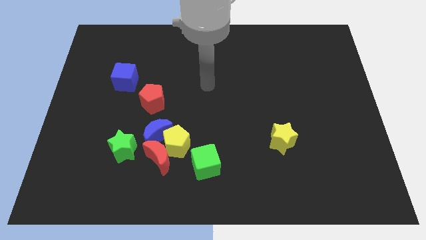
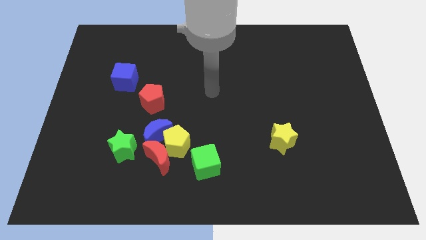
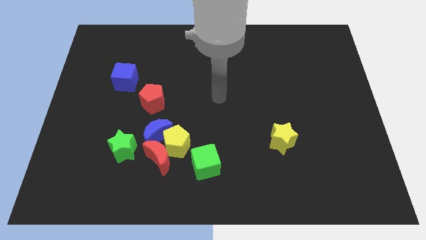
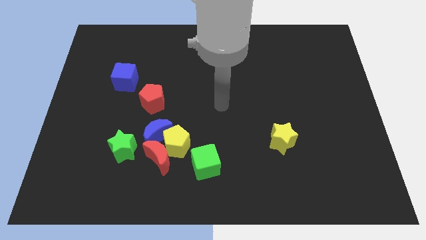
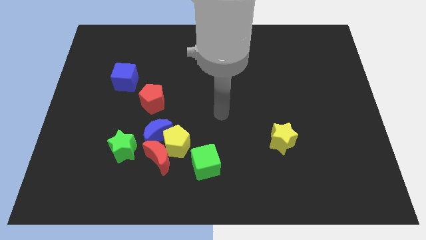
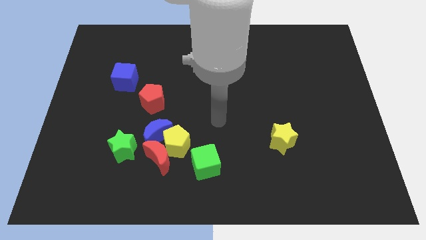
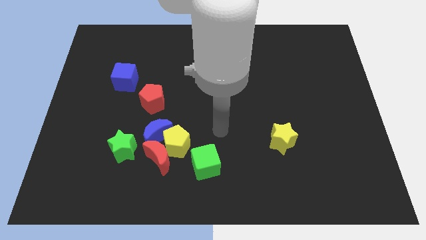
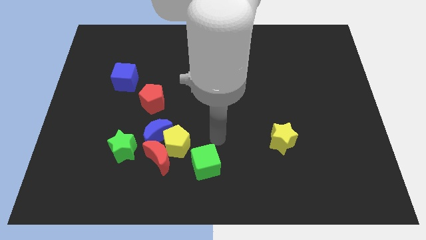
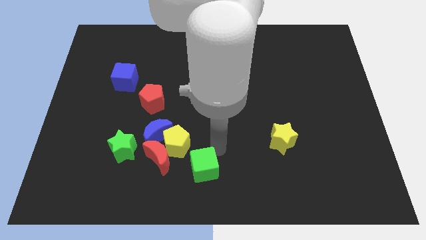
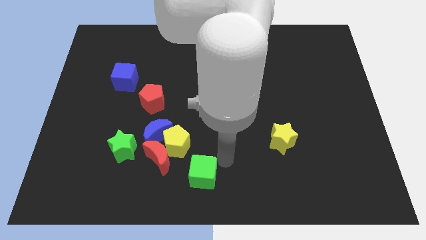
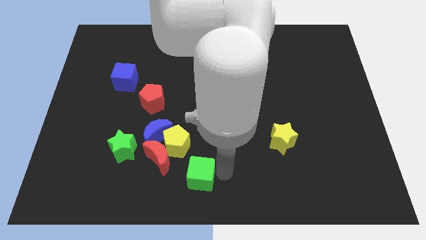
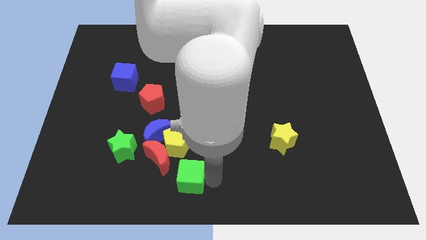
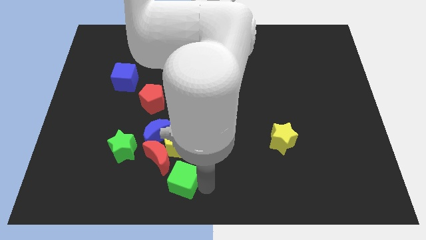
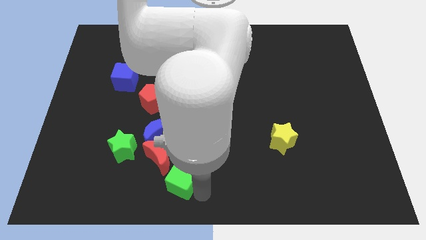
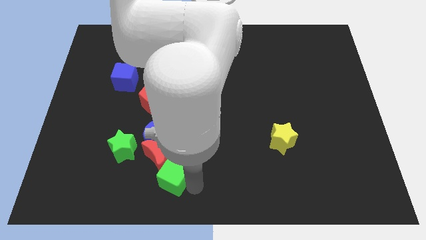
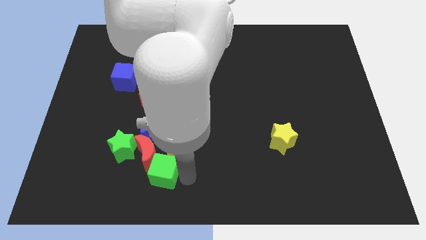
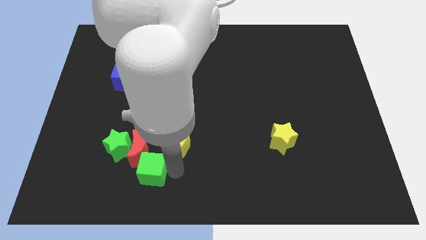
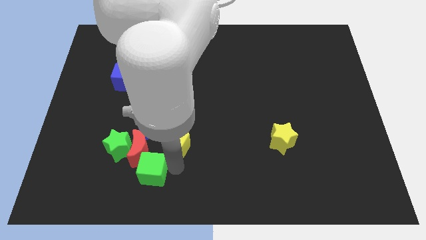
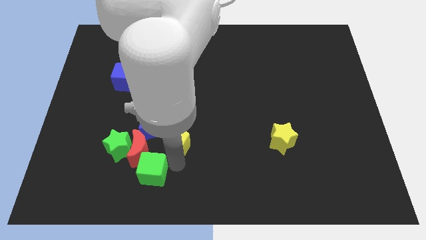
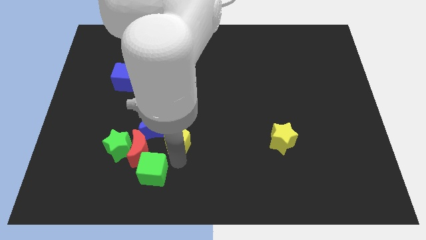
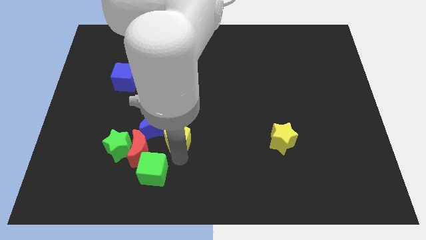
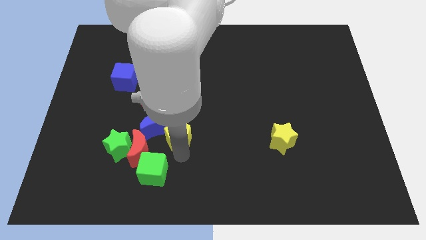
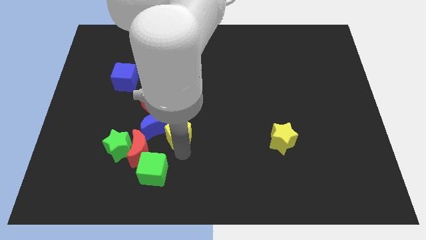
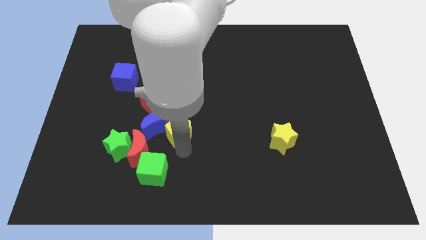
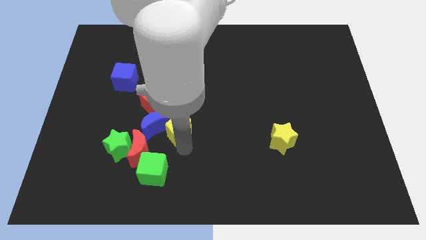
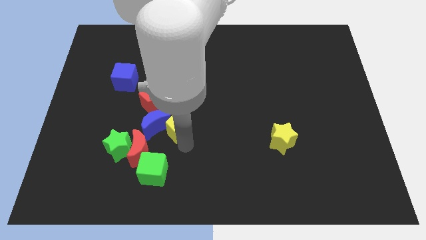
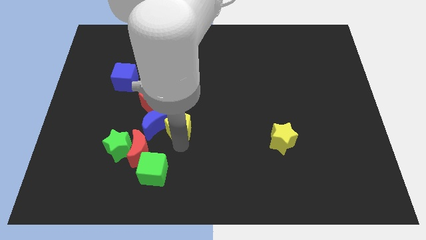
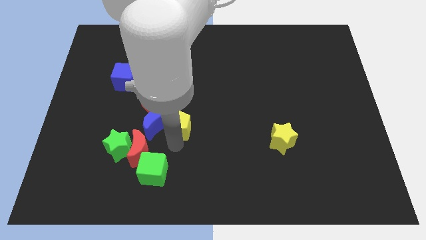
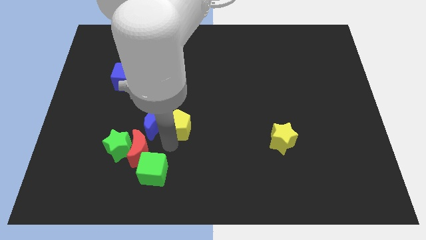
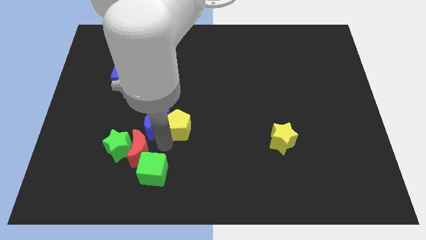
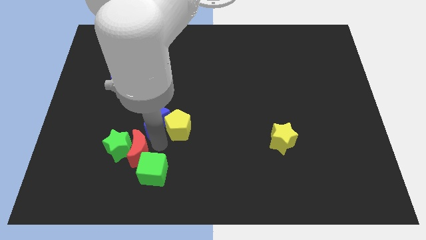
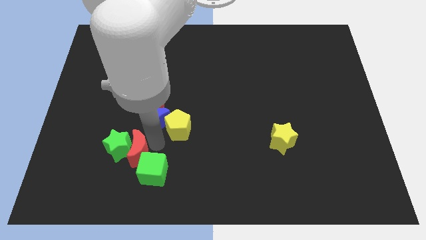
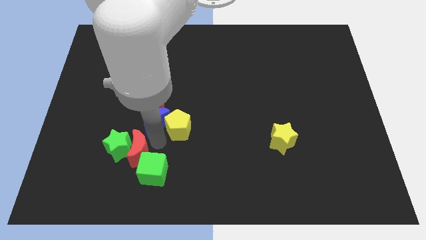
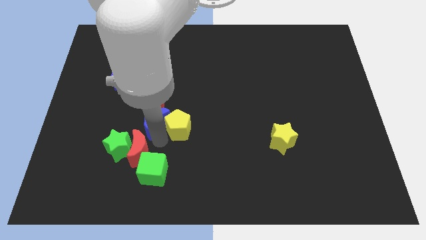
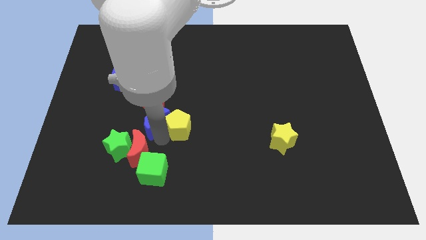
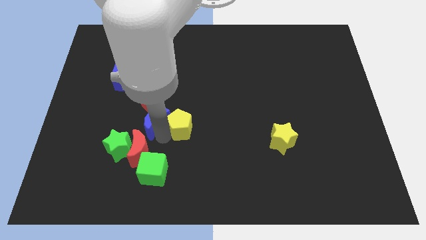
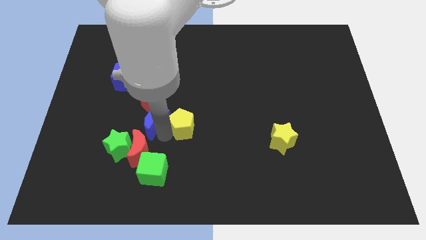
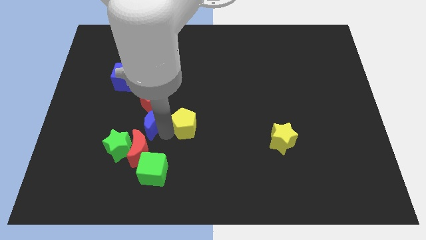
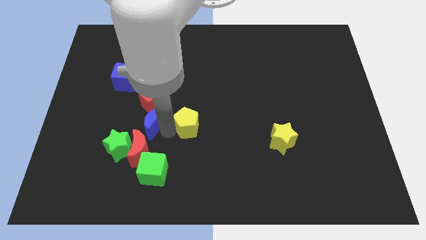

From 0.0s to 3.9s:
separate the yellow pentagon from the red moon, blue moon, and green cube

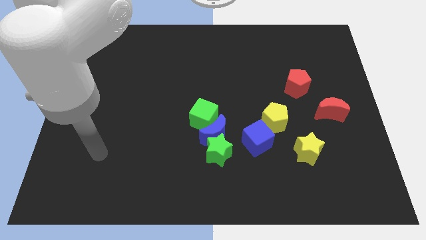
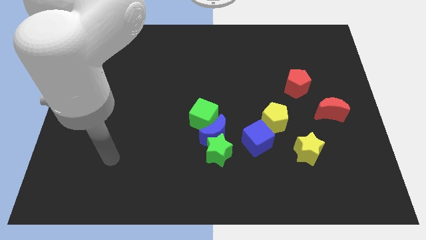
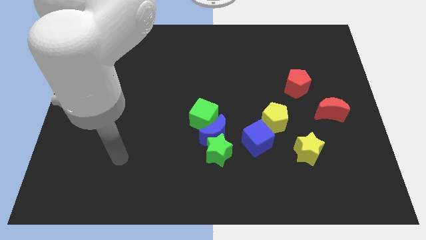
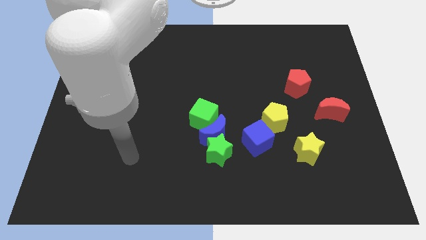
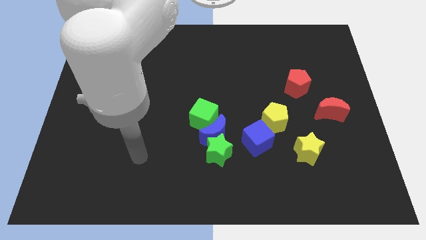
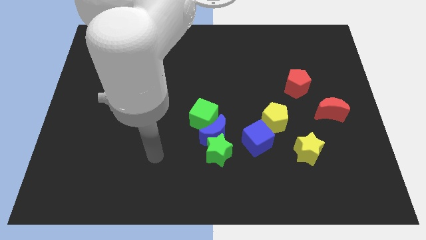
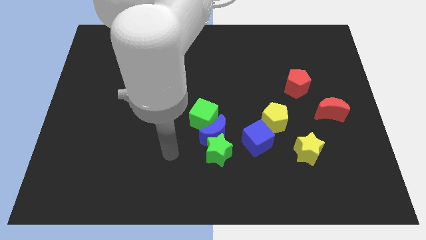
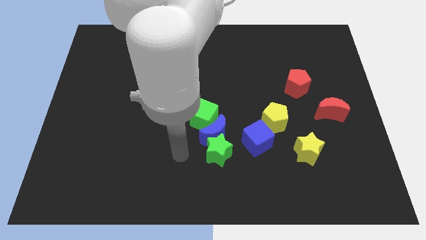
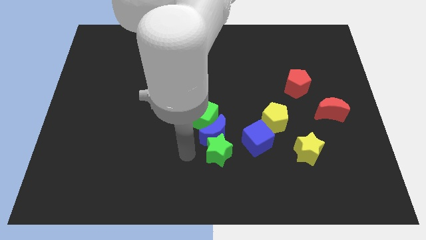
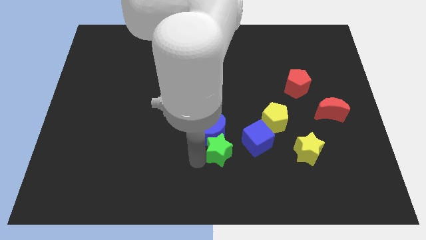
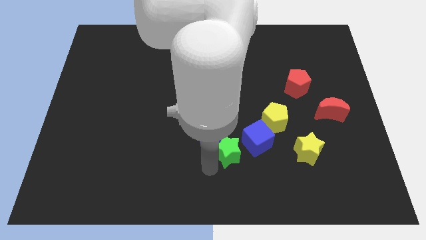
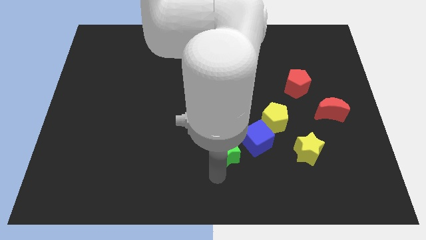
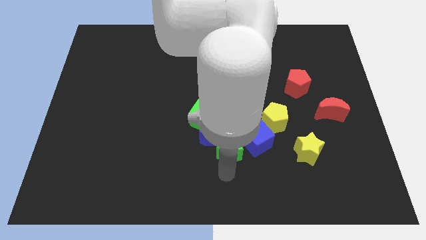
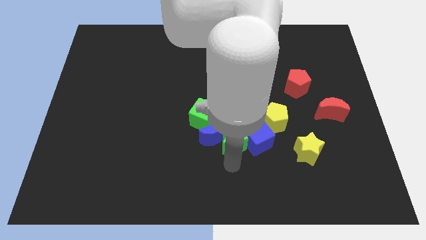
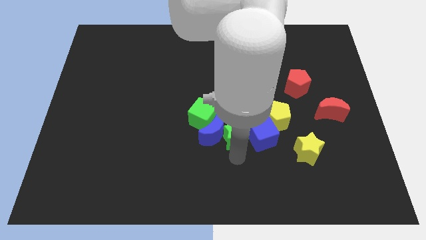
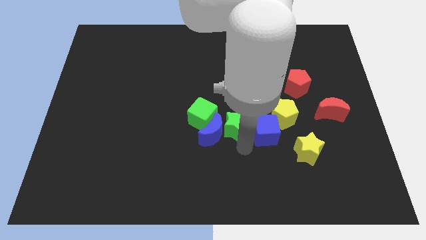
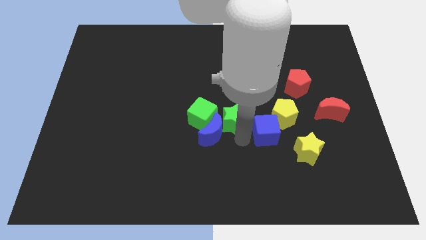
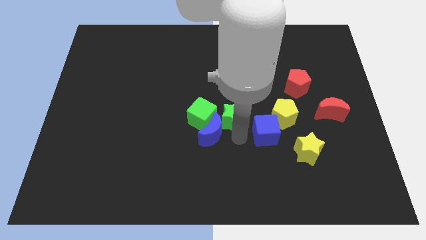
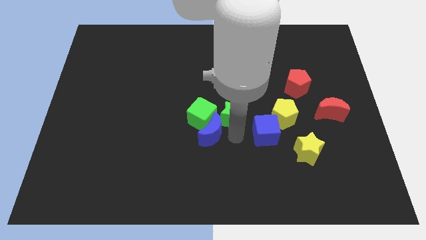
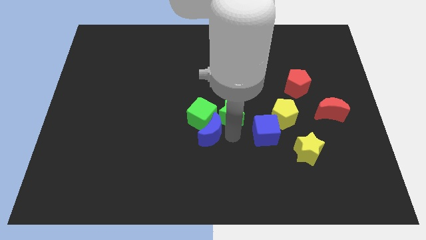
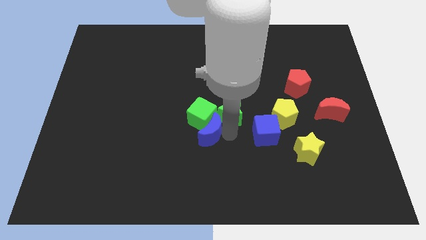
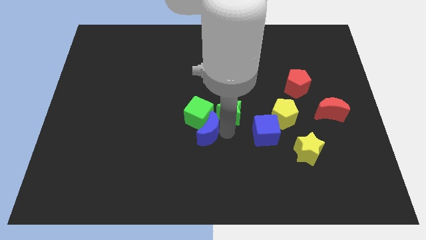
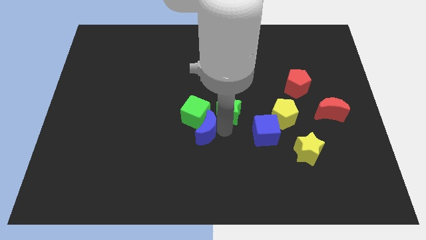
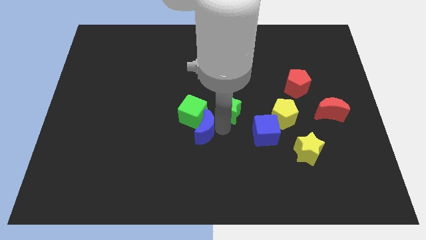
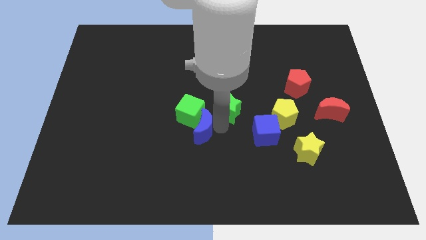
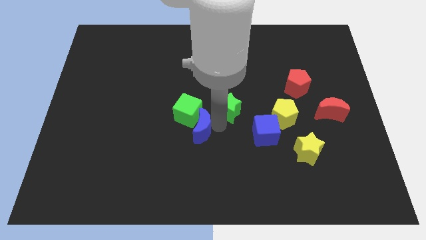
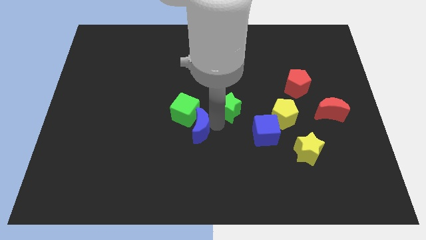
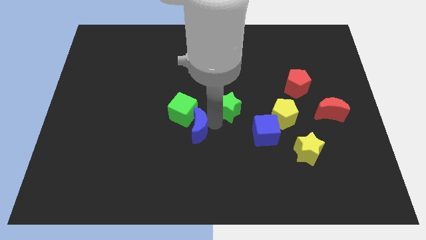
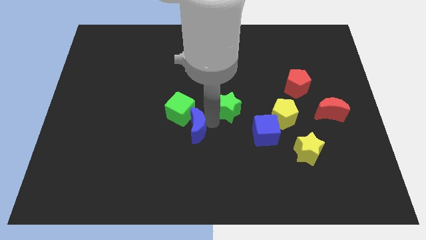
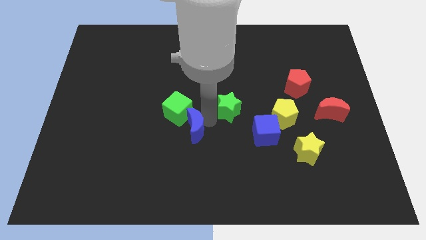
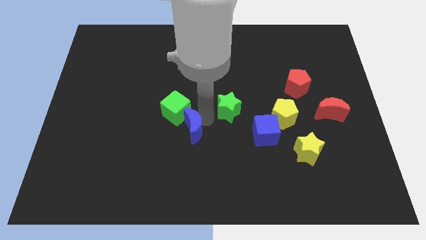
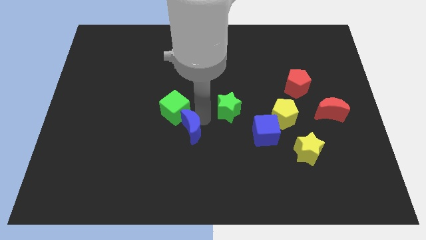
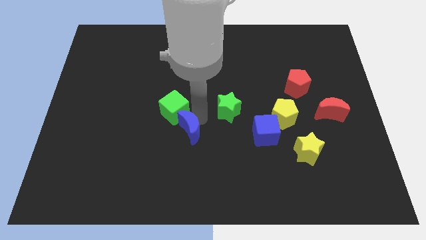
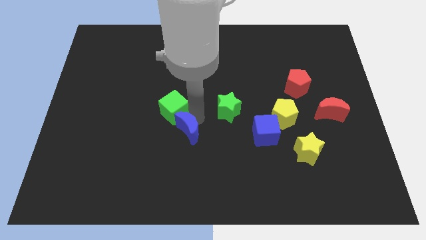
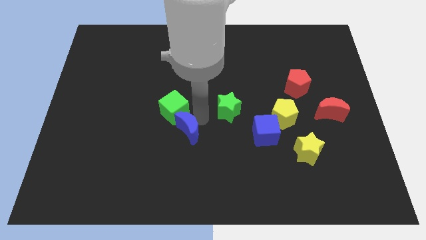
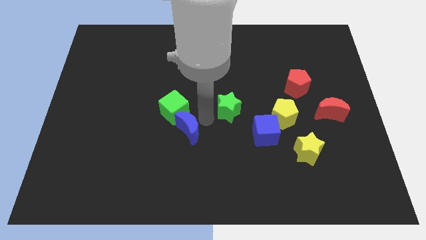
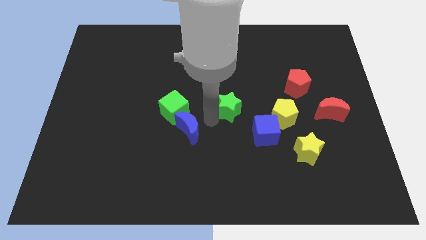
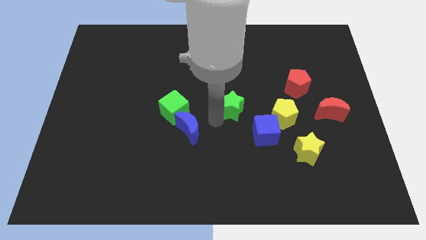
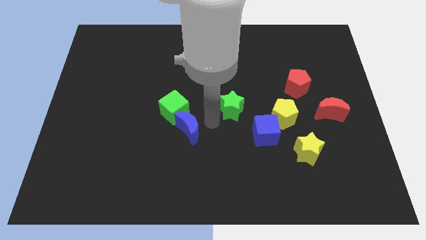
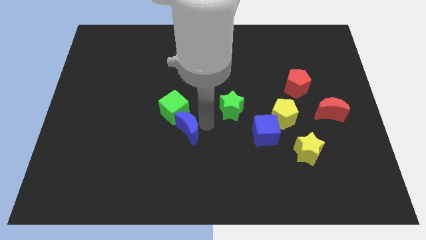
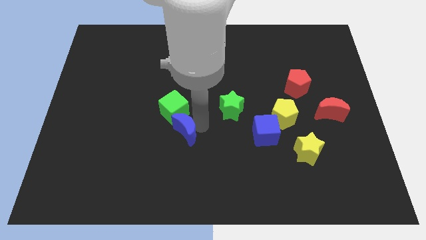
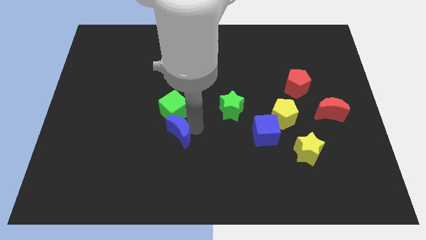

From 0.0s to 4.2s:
separate the blue moon from the group

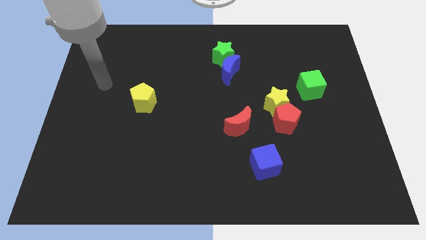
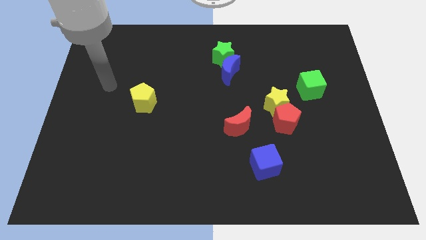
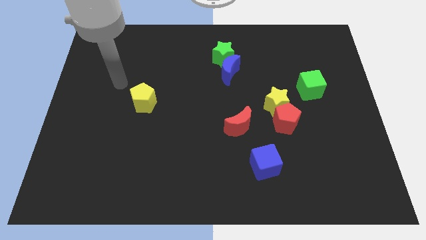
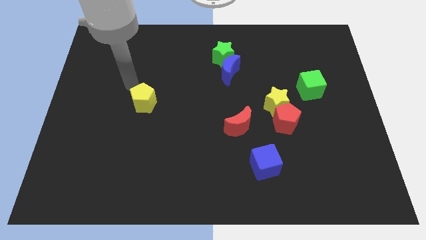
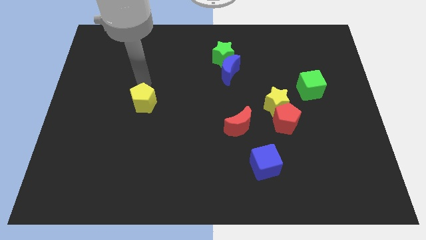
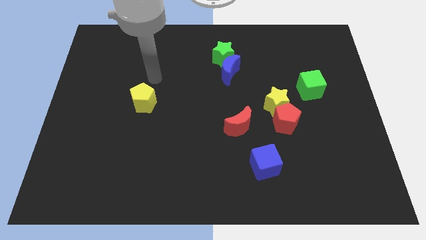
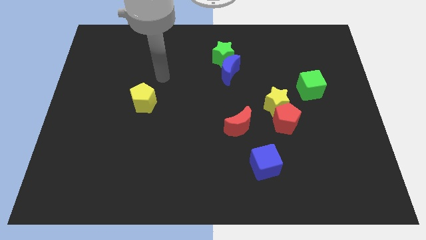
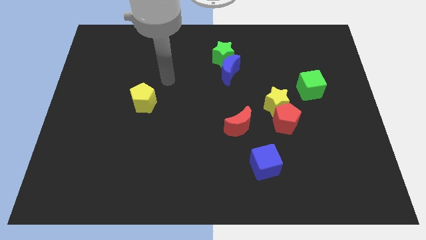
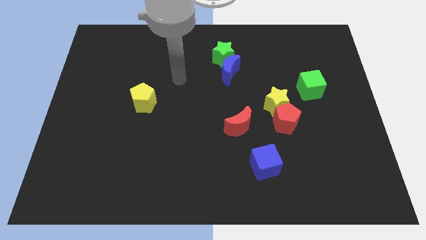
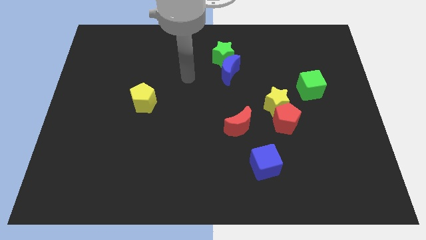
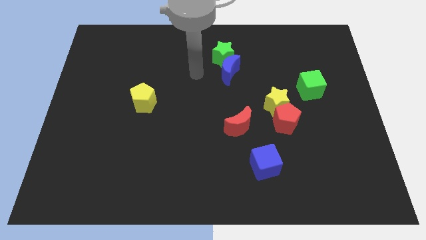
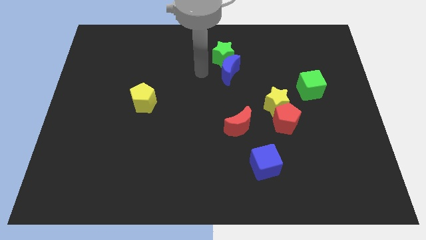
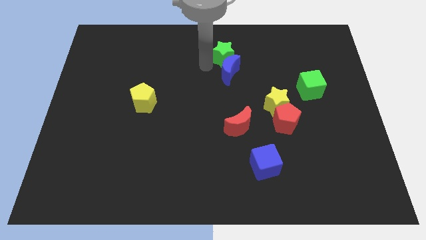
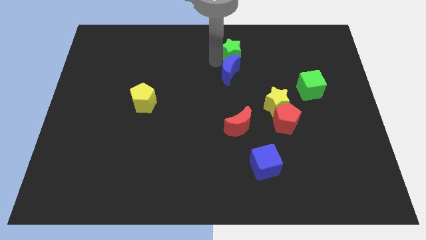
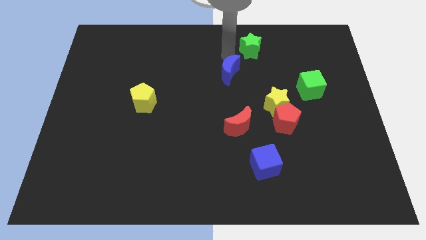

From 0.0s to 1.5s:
pull the blue moon apart from the green star
